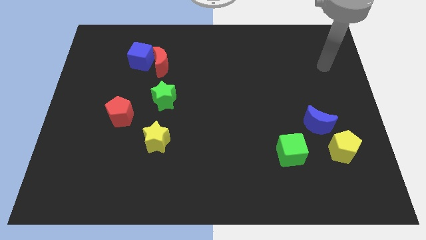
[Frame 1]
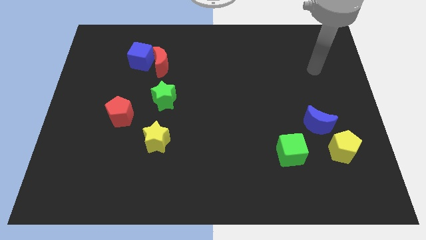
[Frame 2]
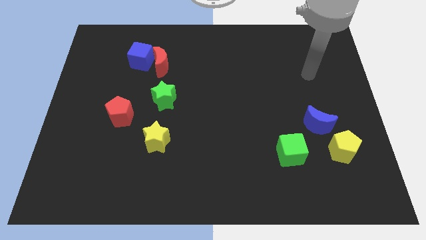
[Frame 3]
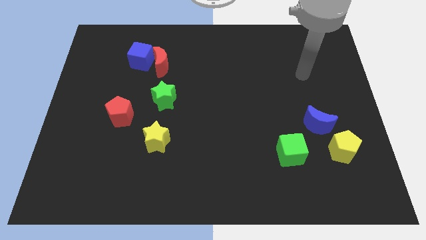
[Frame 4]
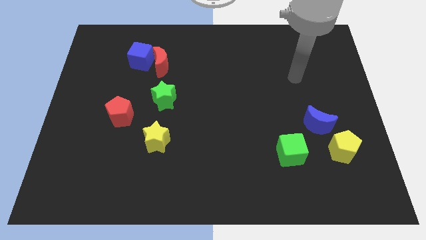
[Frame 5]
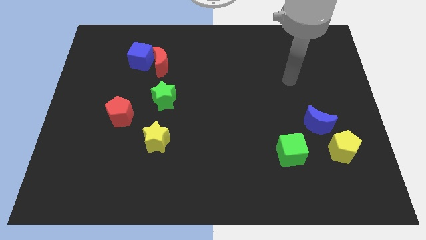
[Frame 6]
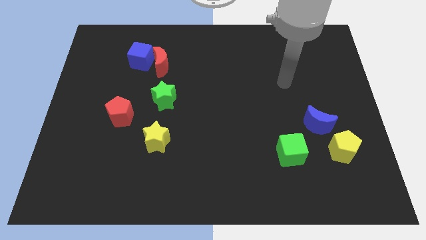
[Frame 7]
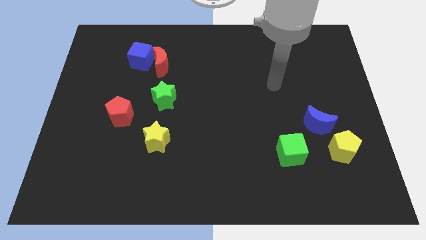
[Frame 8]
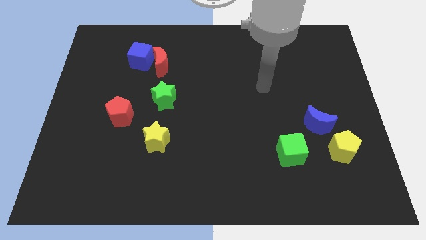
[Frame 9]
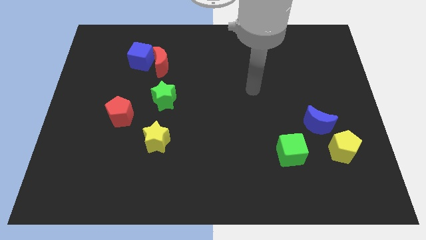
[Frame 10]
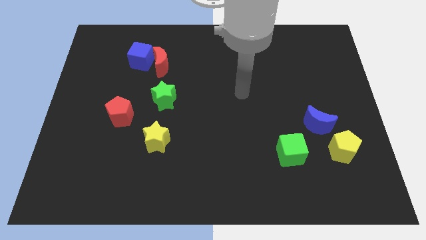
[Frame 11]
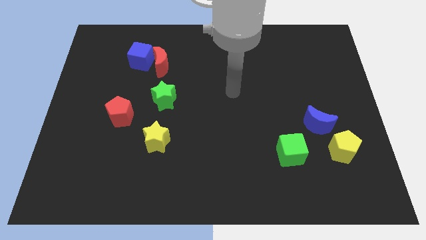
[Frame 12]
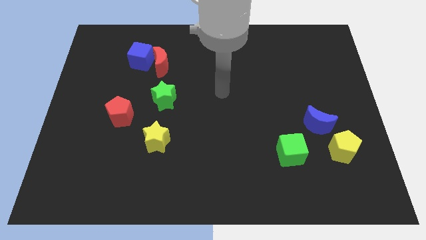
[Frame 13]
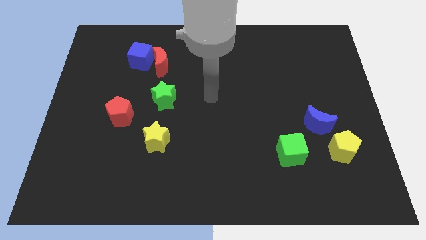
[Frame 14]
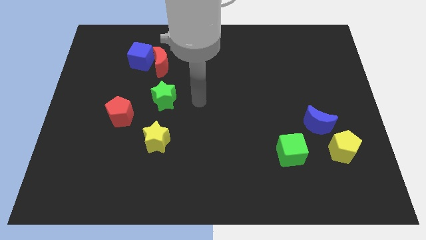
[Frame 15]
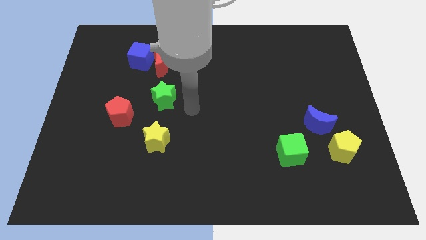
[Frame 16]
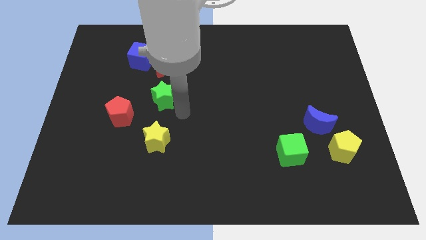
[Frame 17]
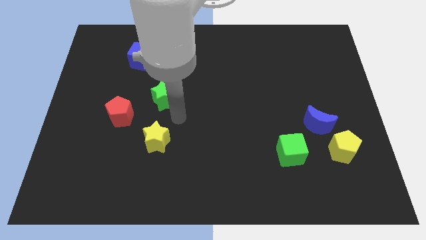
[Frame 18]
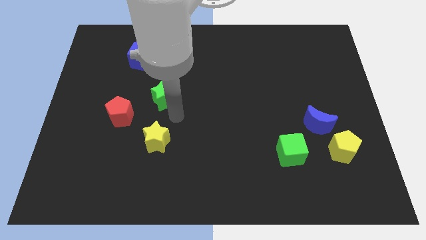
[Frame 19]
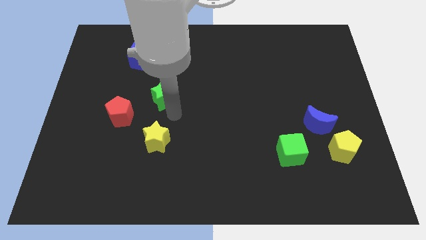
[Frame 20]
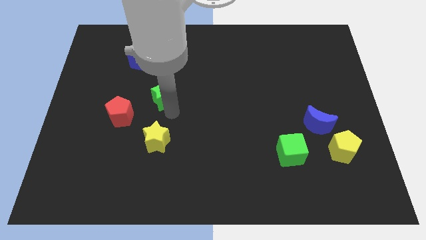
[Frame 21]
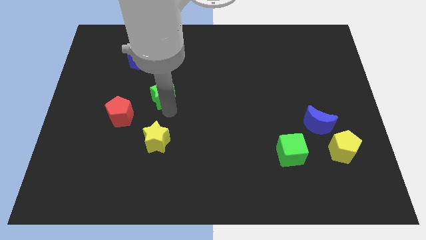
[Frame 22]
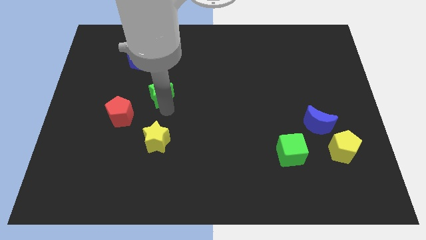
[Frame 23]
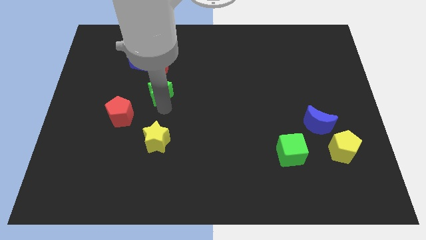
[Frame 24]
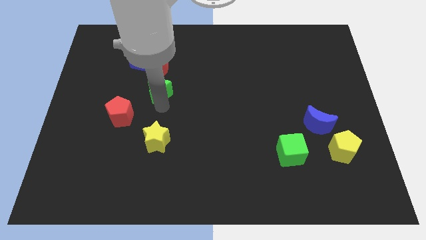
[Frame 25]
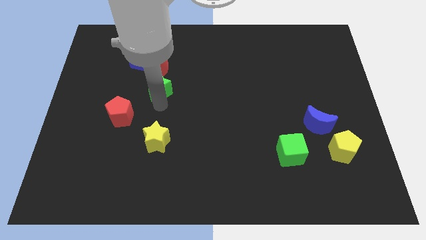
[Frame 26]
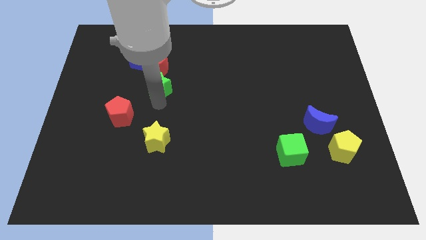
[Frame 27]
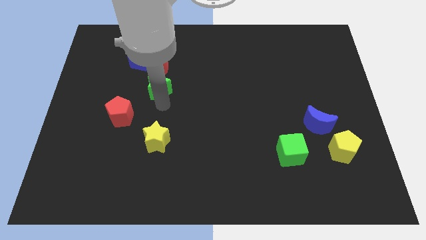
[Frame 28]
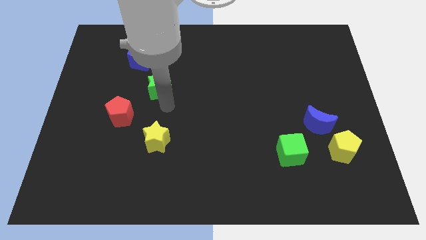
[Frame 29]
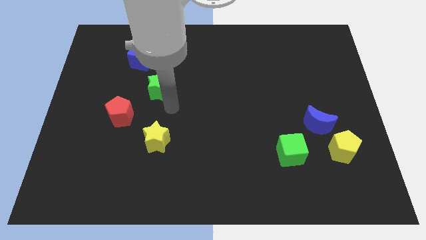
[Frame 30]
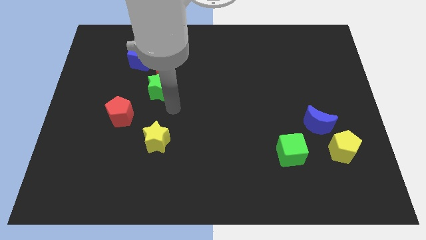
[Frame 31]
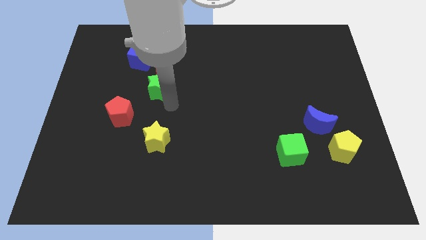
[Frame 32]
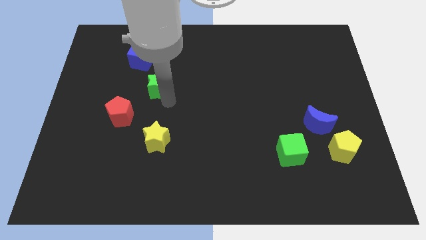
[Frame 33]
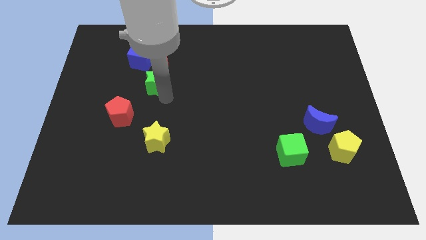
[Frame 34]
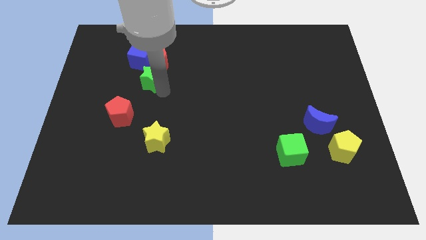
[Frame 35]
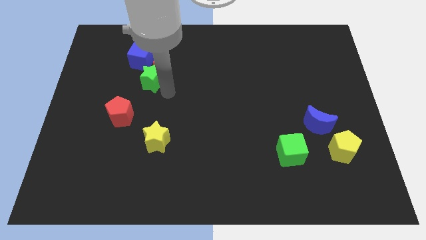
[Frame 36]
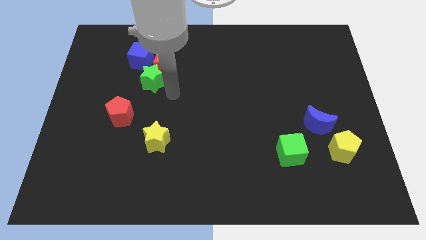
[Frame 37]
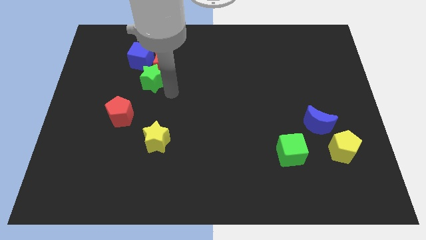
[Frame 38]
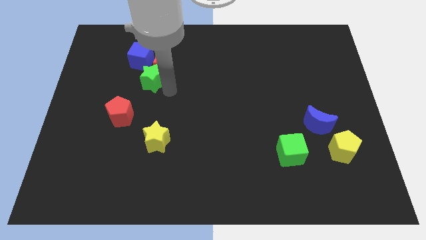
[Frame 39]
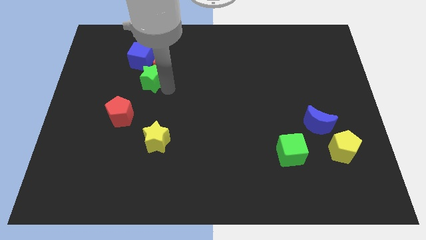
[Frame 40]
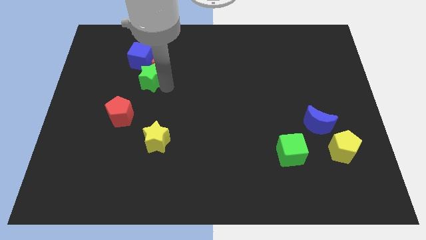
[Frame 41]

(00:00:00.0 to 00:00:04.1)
slide the green star upwards and then to the left a bit

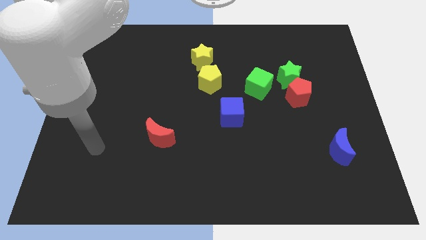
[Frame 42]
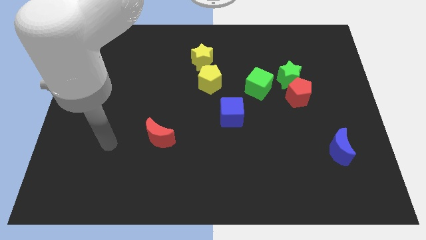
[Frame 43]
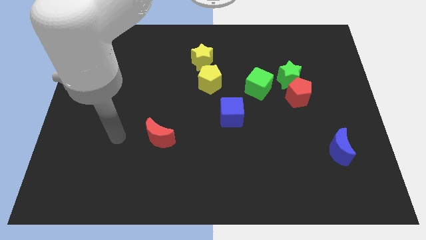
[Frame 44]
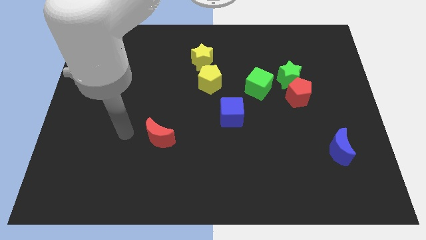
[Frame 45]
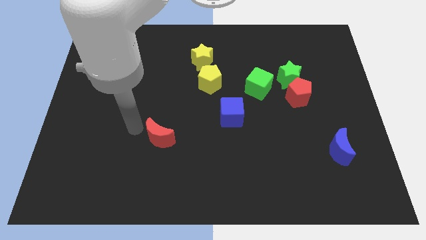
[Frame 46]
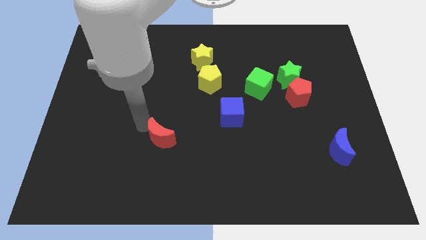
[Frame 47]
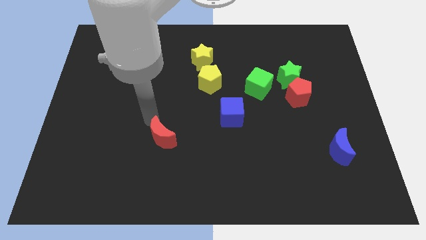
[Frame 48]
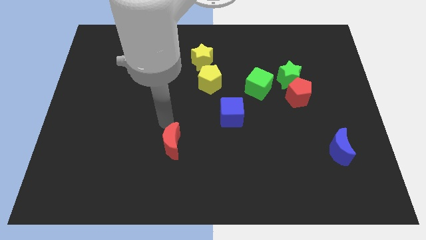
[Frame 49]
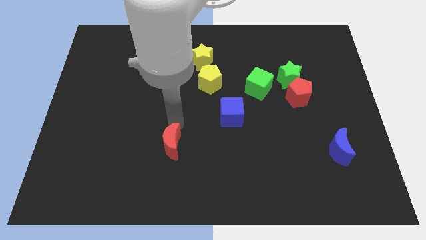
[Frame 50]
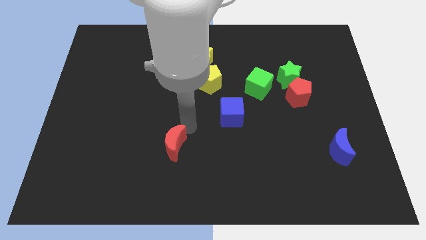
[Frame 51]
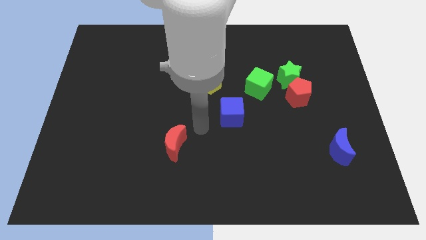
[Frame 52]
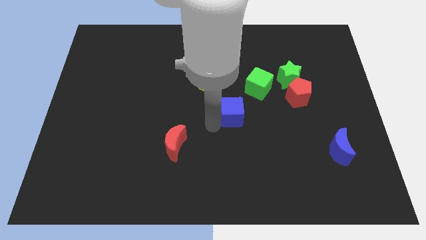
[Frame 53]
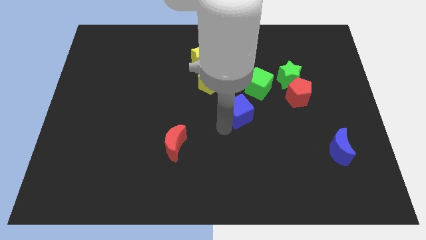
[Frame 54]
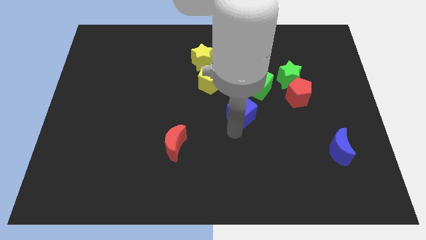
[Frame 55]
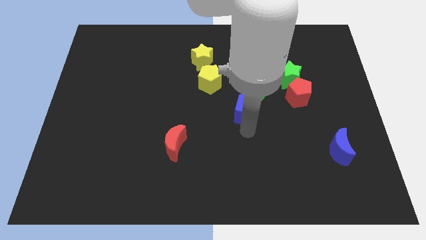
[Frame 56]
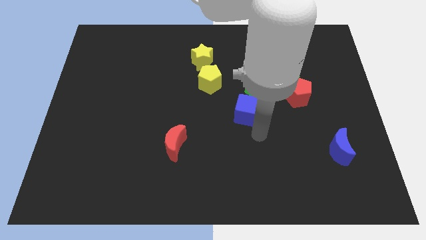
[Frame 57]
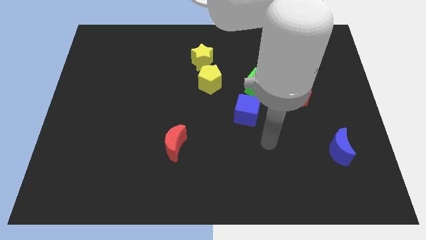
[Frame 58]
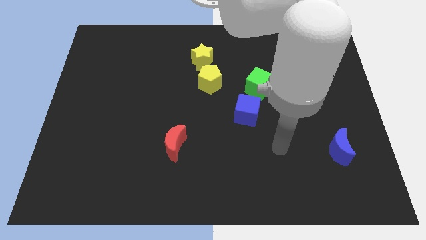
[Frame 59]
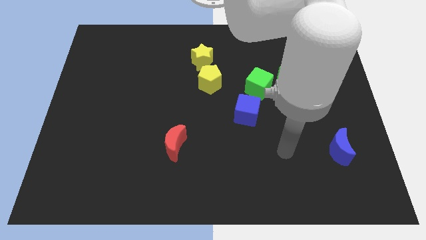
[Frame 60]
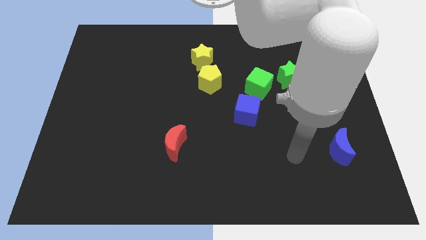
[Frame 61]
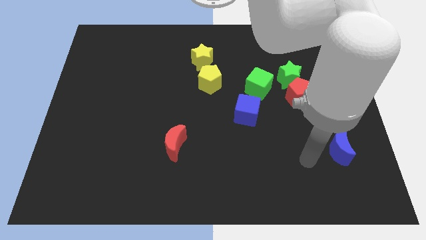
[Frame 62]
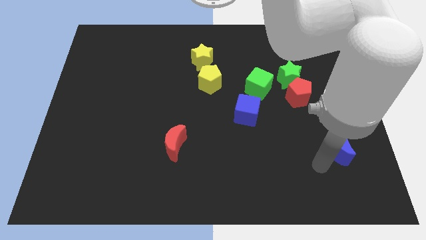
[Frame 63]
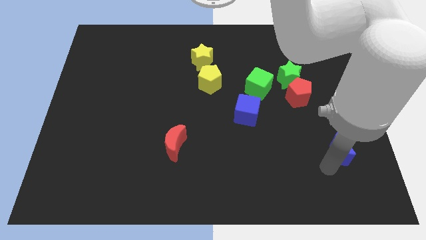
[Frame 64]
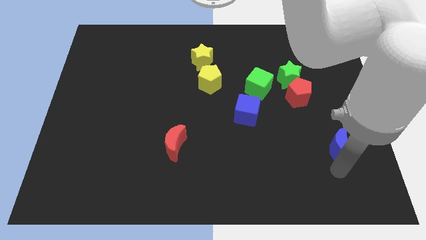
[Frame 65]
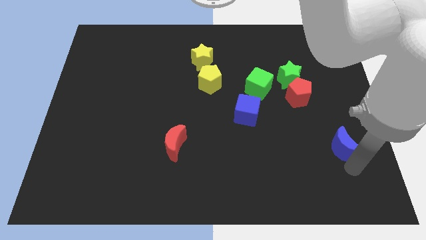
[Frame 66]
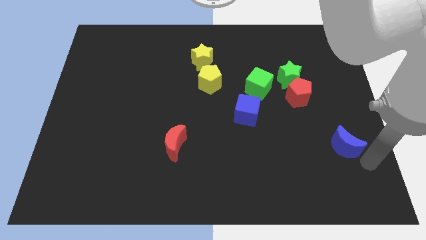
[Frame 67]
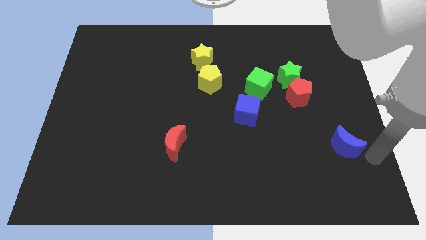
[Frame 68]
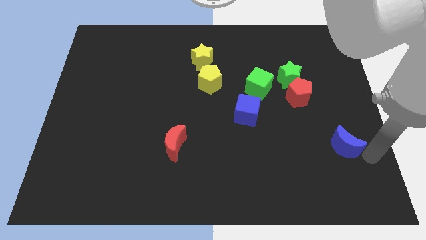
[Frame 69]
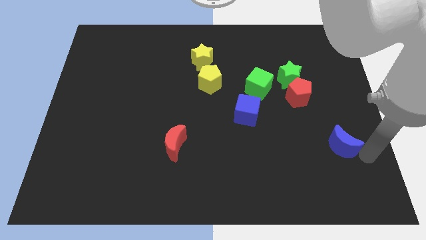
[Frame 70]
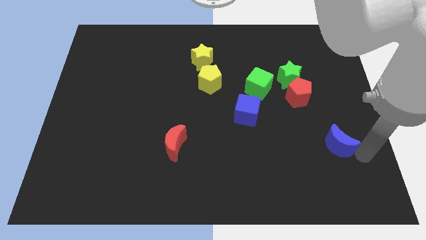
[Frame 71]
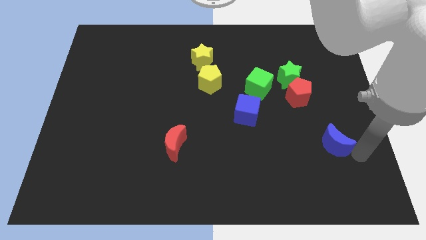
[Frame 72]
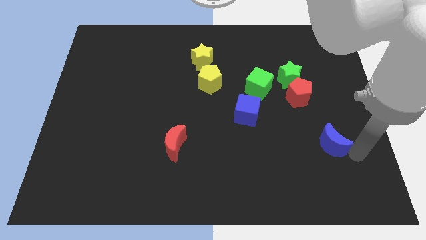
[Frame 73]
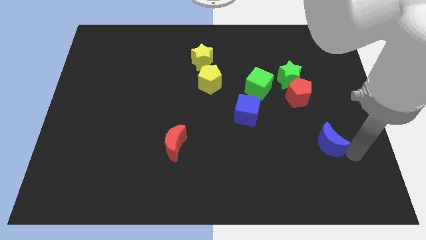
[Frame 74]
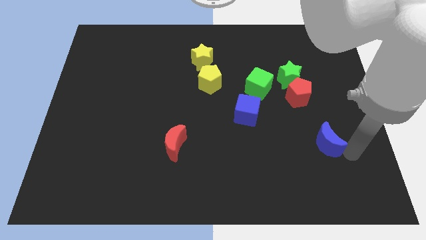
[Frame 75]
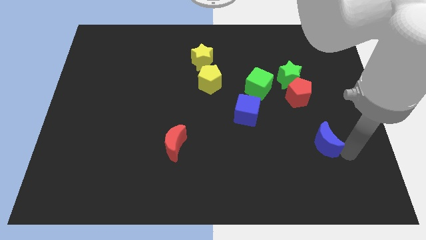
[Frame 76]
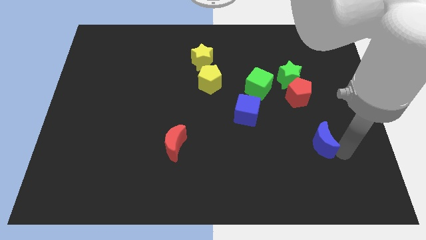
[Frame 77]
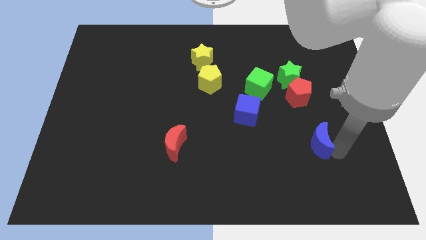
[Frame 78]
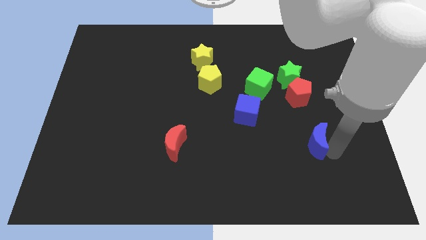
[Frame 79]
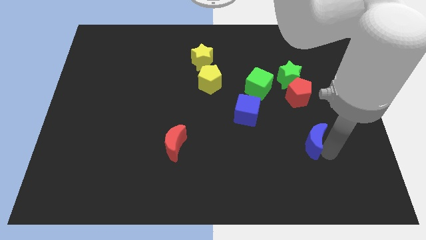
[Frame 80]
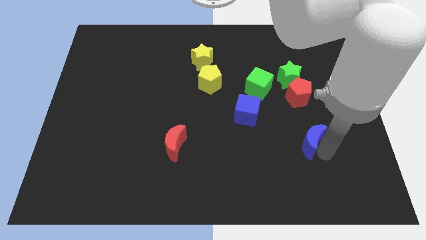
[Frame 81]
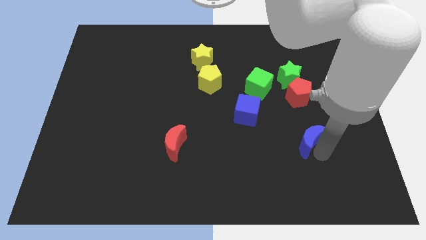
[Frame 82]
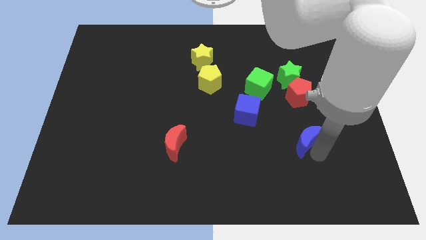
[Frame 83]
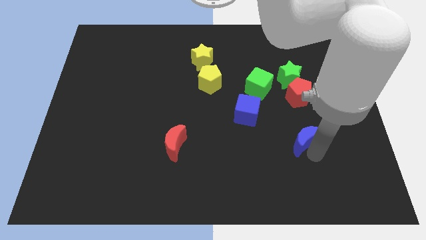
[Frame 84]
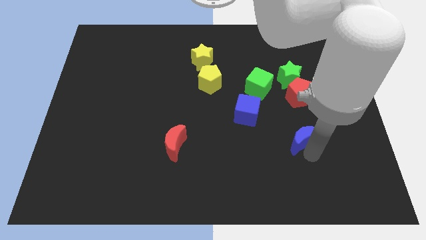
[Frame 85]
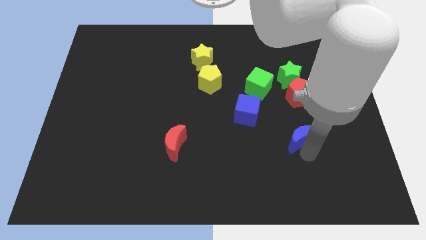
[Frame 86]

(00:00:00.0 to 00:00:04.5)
push the blue moon somewhat upwards and left diagonally
